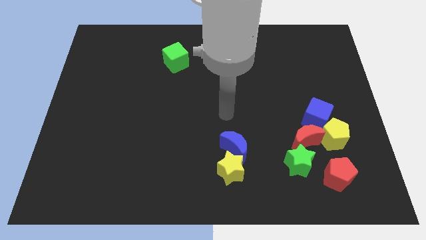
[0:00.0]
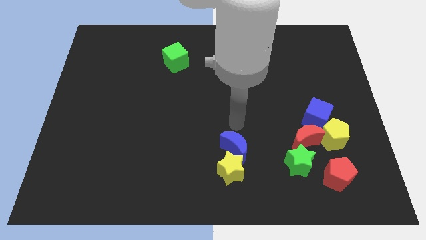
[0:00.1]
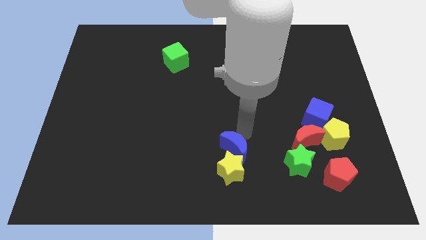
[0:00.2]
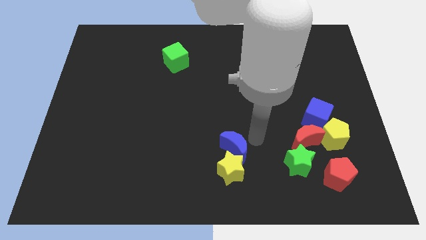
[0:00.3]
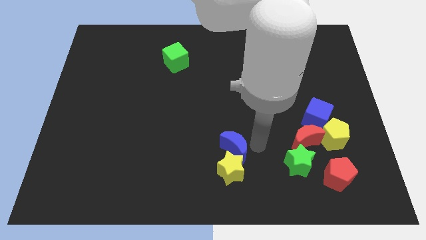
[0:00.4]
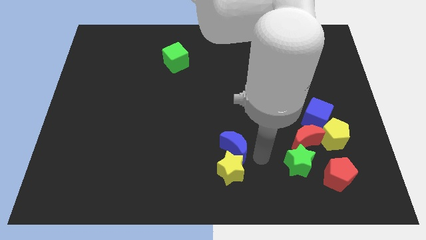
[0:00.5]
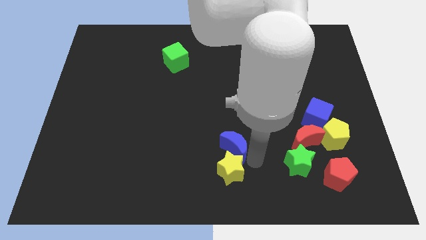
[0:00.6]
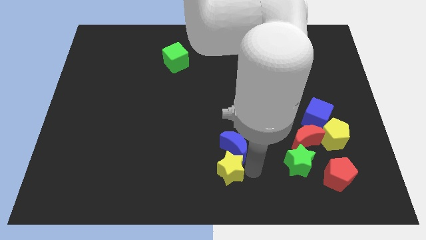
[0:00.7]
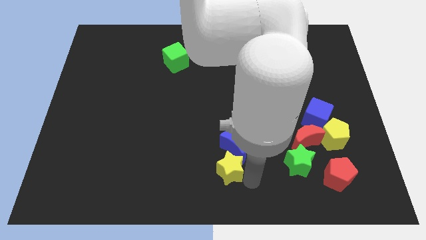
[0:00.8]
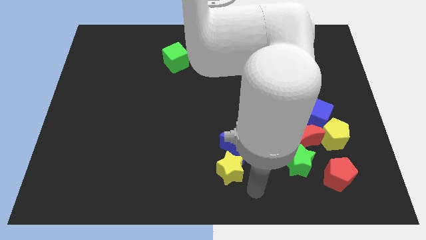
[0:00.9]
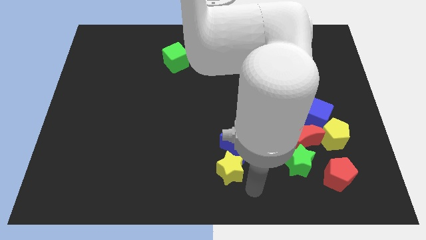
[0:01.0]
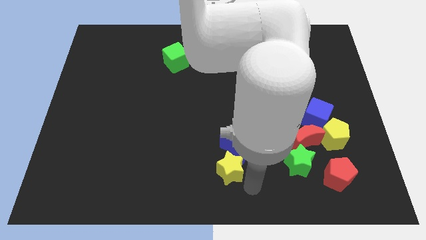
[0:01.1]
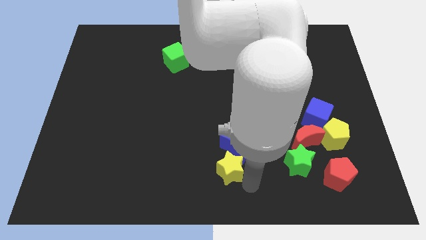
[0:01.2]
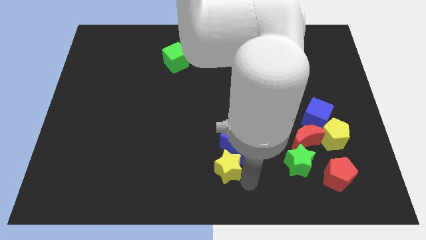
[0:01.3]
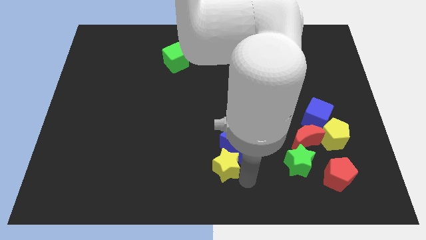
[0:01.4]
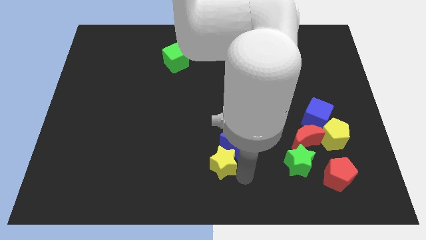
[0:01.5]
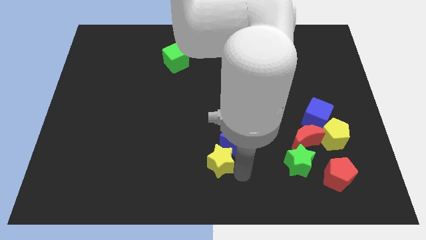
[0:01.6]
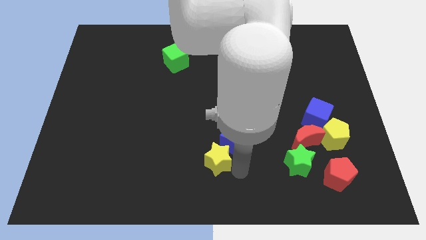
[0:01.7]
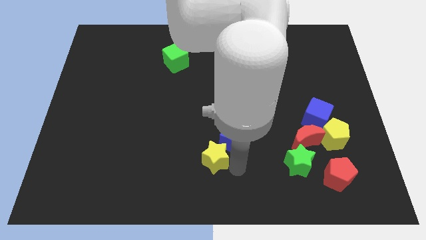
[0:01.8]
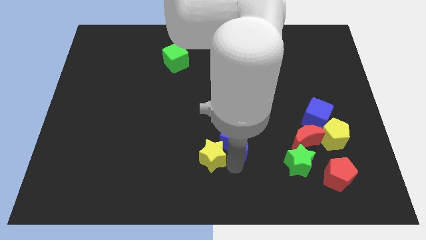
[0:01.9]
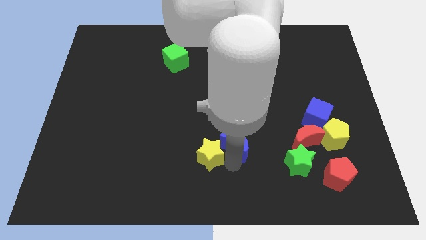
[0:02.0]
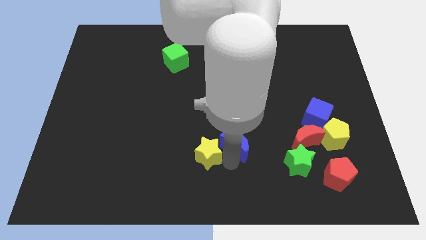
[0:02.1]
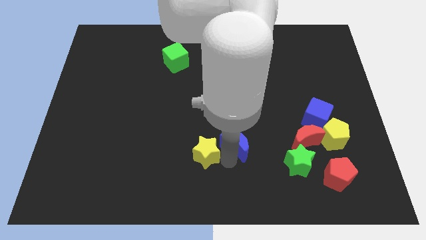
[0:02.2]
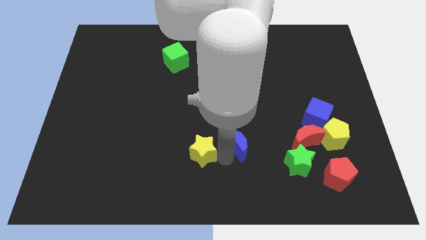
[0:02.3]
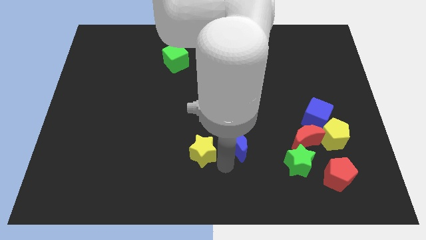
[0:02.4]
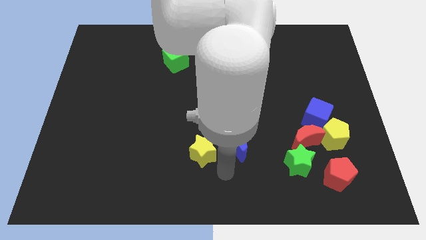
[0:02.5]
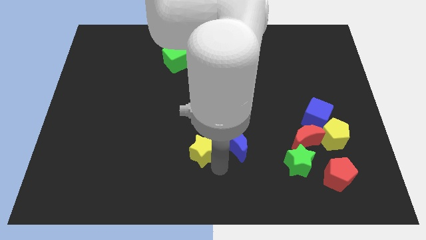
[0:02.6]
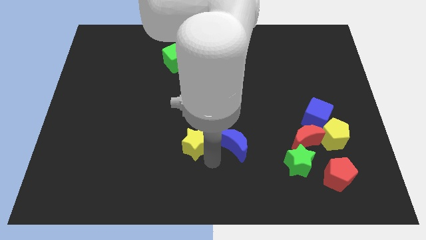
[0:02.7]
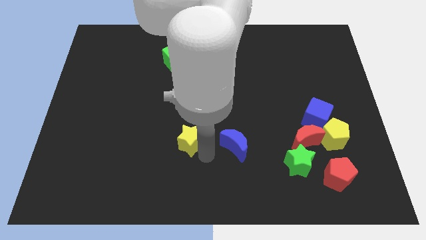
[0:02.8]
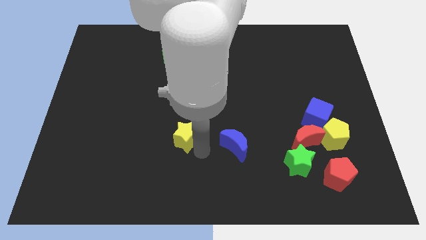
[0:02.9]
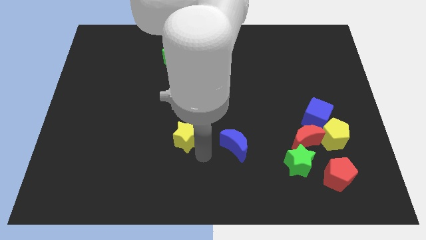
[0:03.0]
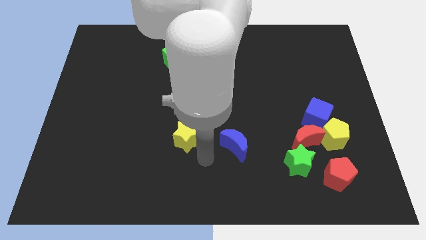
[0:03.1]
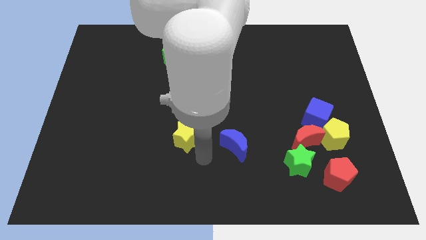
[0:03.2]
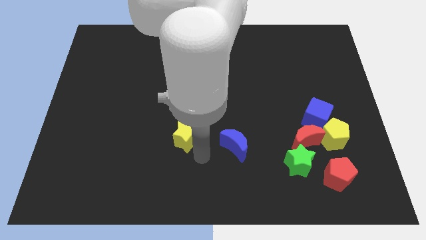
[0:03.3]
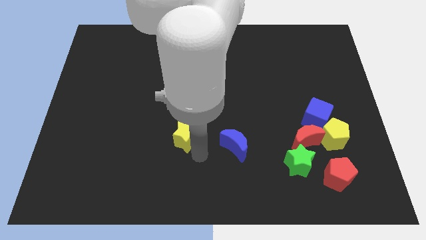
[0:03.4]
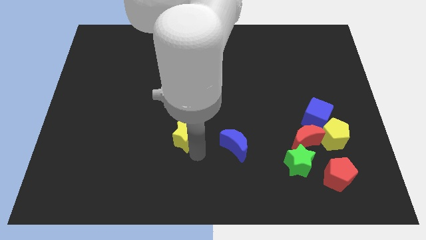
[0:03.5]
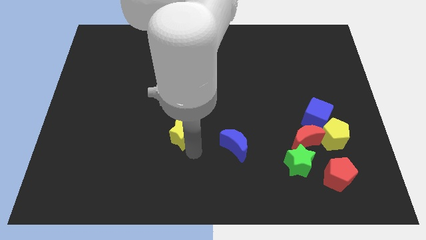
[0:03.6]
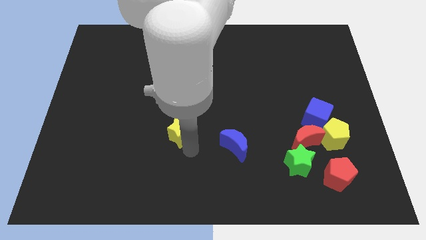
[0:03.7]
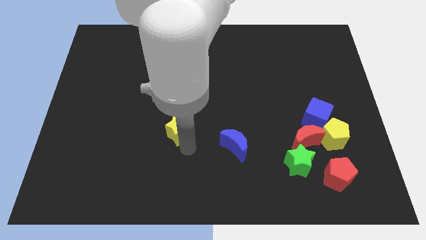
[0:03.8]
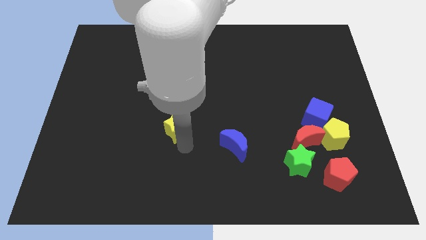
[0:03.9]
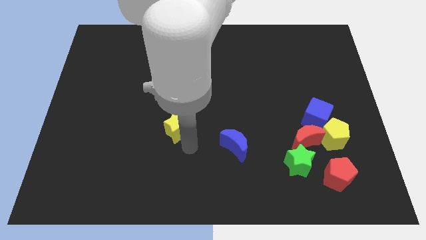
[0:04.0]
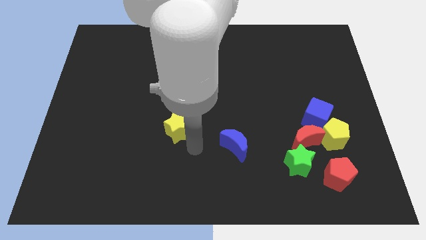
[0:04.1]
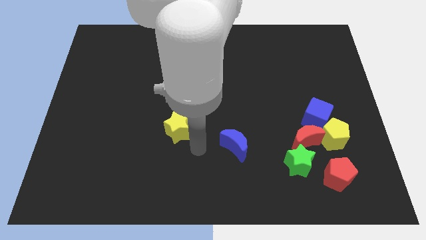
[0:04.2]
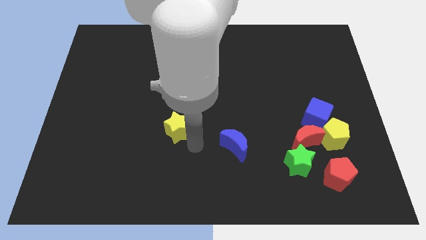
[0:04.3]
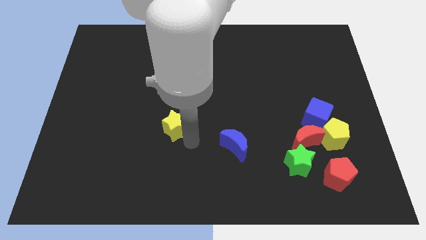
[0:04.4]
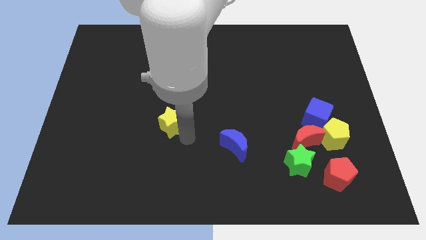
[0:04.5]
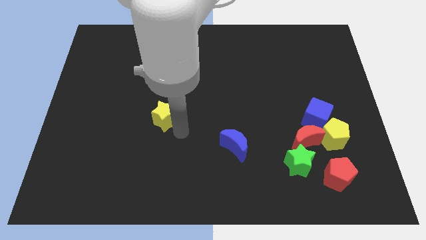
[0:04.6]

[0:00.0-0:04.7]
move the yellow star up and to the left diagonally

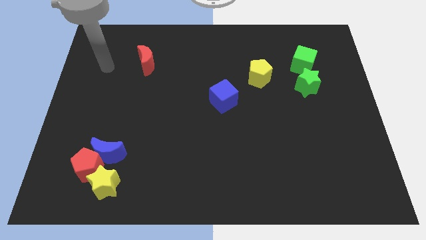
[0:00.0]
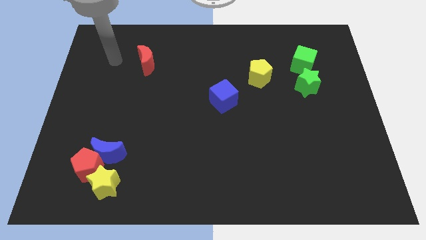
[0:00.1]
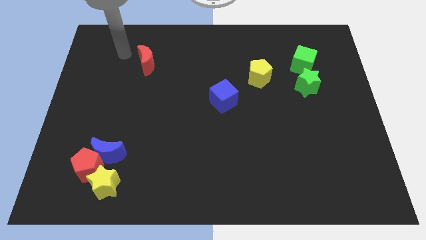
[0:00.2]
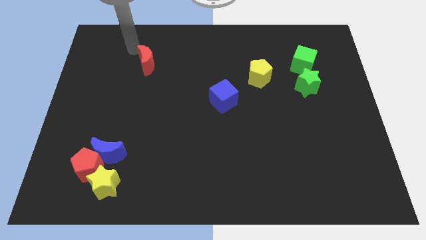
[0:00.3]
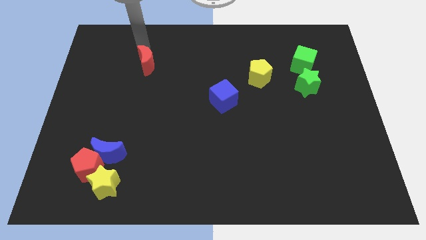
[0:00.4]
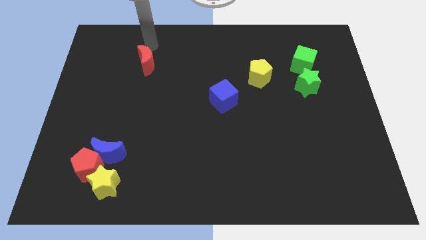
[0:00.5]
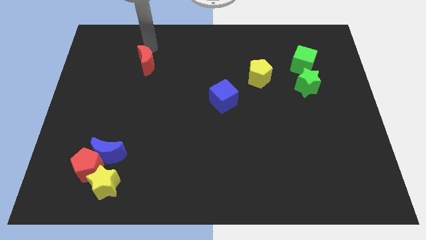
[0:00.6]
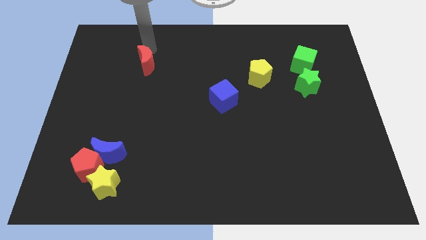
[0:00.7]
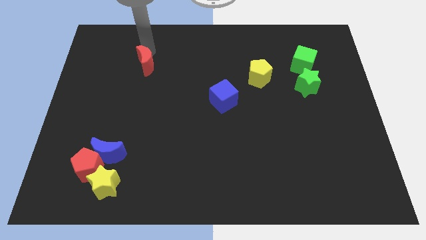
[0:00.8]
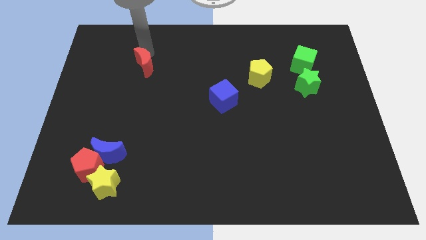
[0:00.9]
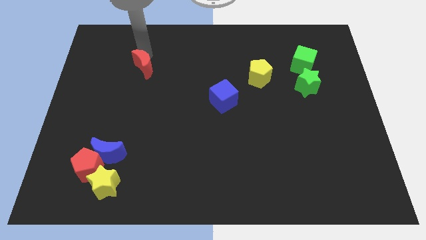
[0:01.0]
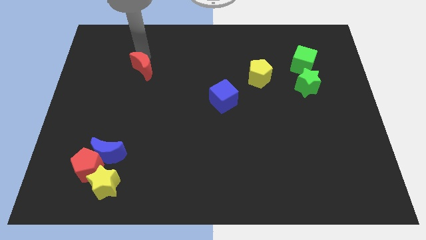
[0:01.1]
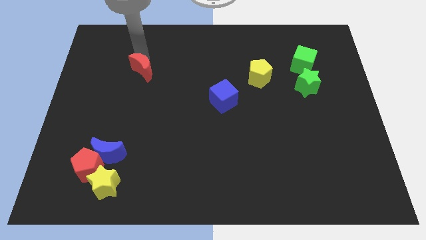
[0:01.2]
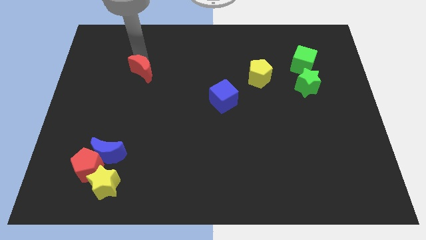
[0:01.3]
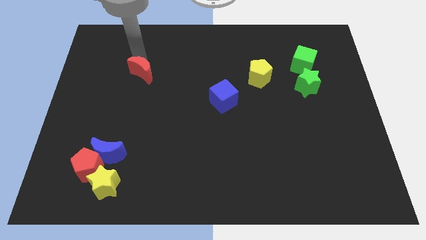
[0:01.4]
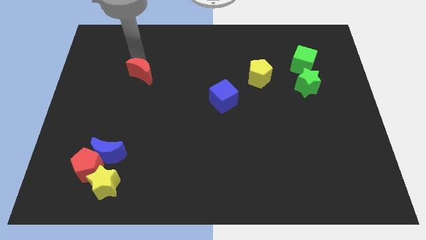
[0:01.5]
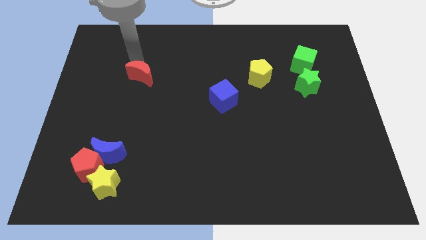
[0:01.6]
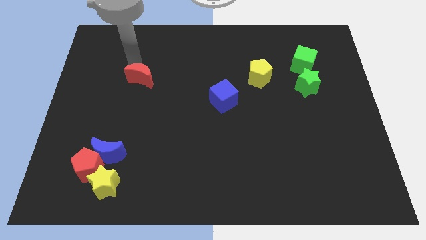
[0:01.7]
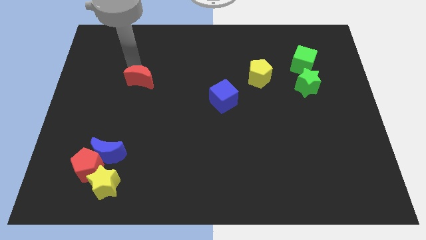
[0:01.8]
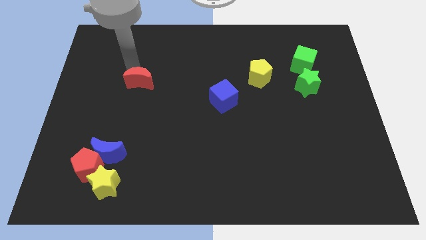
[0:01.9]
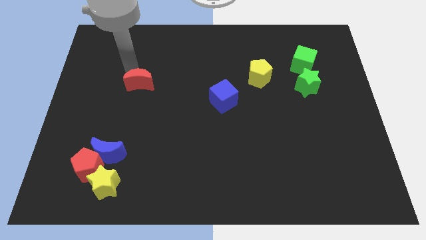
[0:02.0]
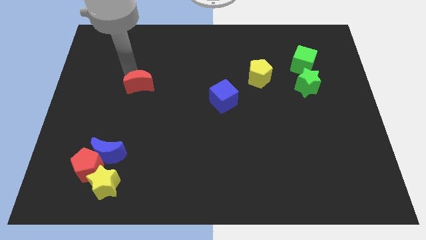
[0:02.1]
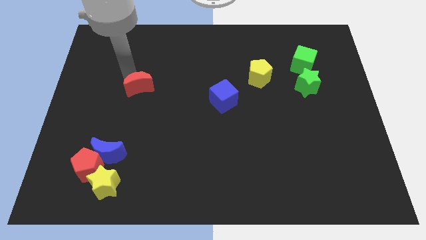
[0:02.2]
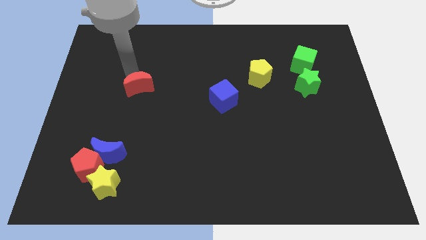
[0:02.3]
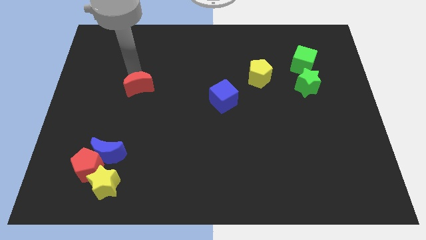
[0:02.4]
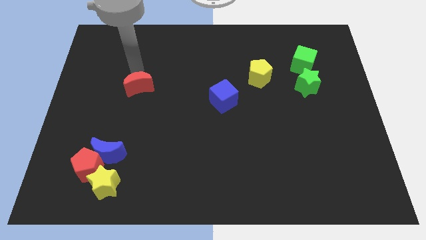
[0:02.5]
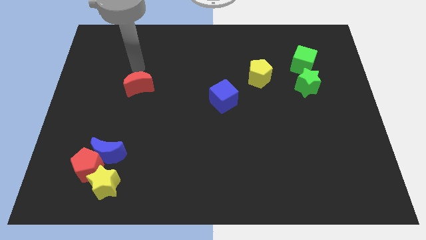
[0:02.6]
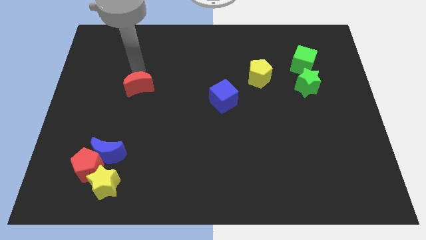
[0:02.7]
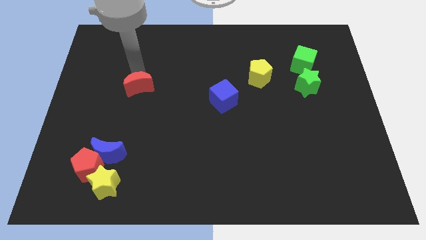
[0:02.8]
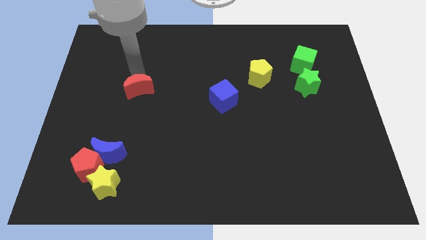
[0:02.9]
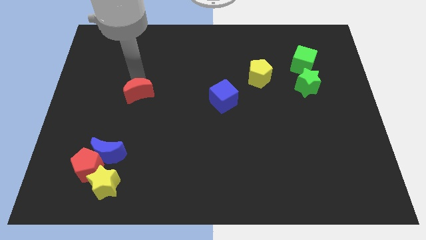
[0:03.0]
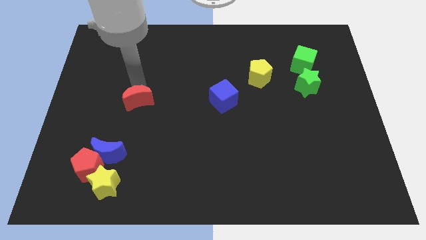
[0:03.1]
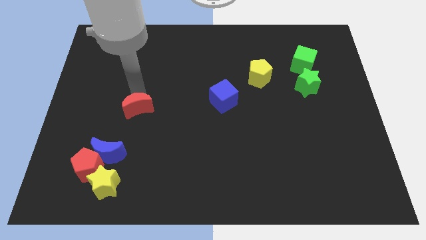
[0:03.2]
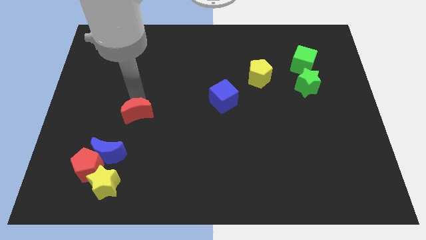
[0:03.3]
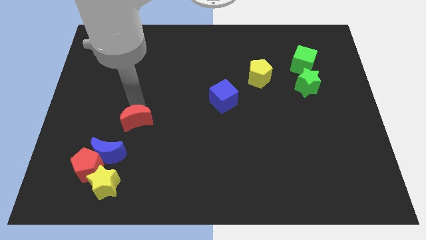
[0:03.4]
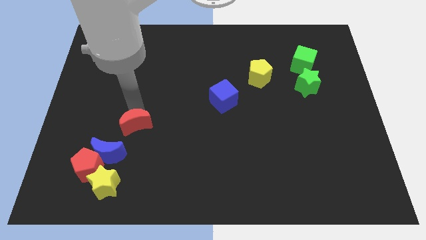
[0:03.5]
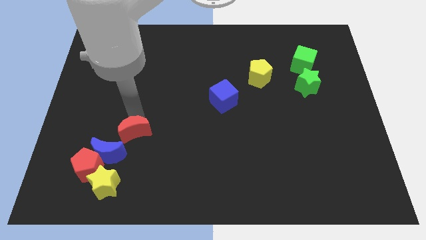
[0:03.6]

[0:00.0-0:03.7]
push the red moon downwards
